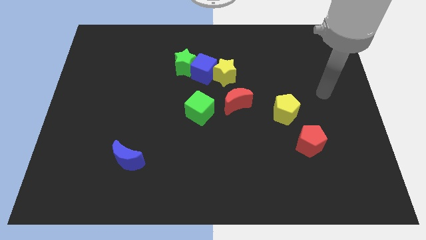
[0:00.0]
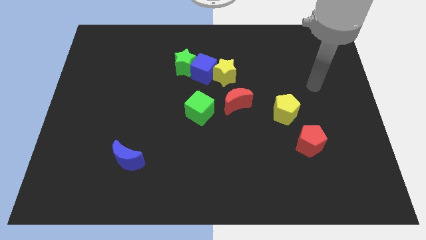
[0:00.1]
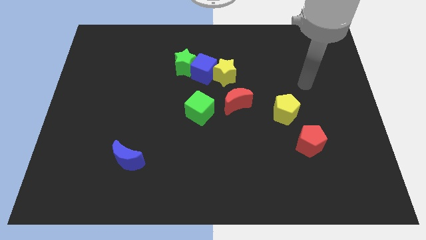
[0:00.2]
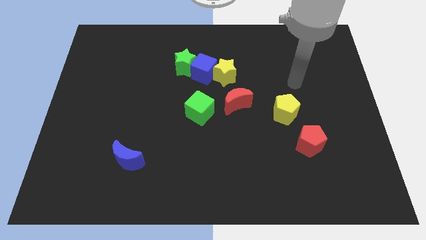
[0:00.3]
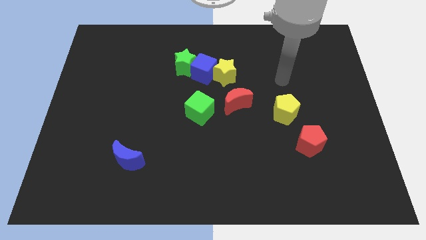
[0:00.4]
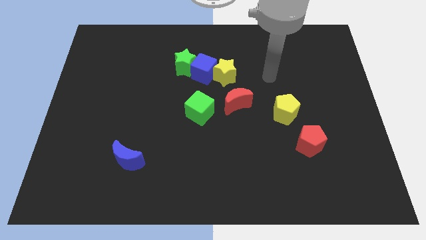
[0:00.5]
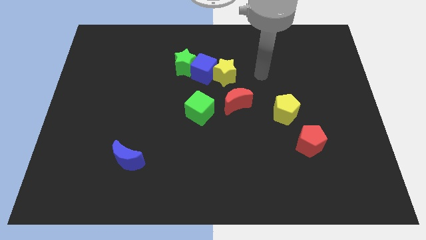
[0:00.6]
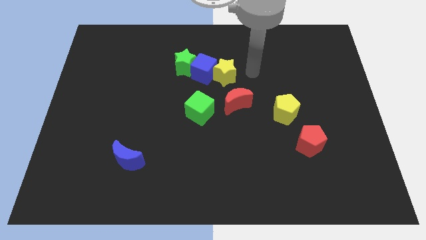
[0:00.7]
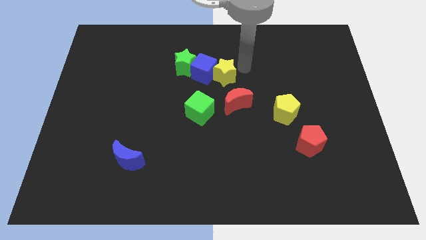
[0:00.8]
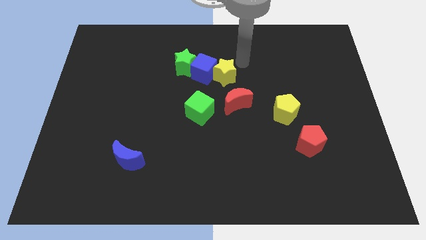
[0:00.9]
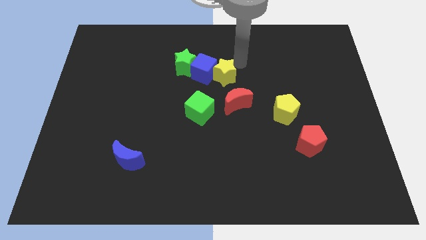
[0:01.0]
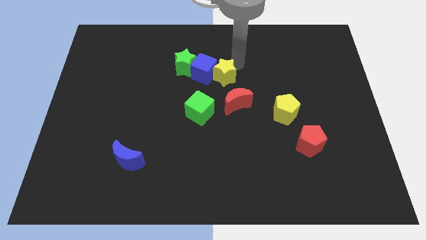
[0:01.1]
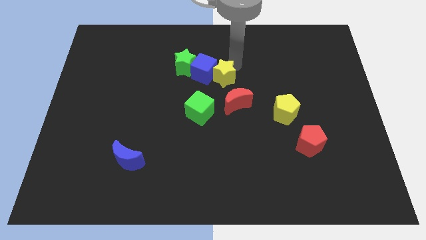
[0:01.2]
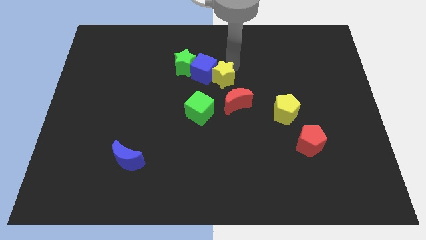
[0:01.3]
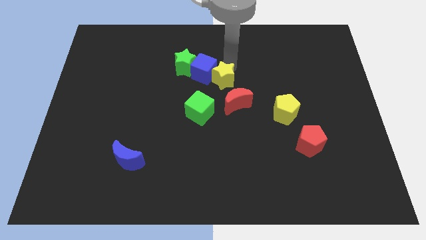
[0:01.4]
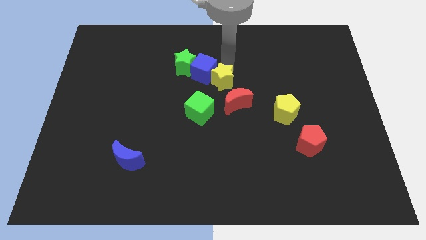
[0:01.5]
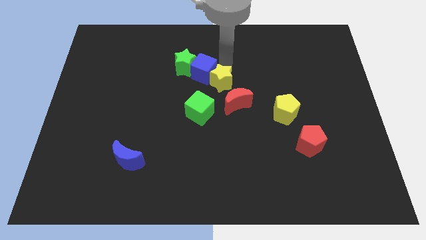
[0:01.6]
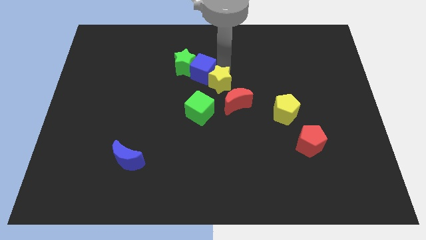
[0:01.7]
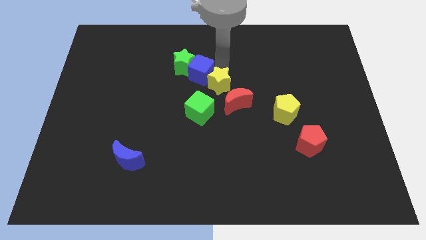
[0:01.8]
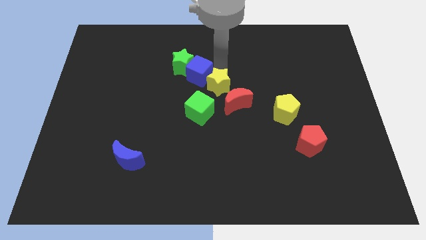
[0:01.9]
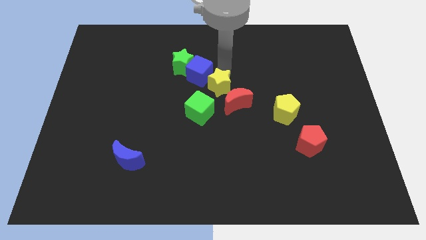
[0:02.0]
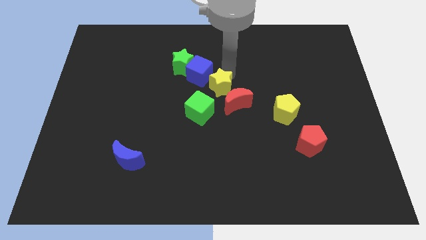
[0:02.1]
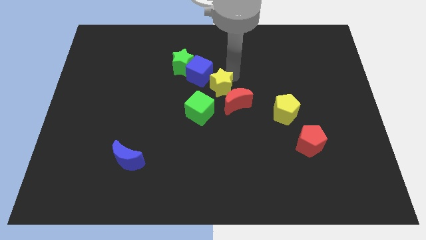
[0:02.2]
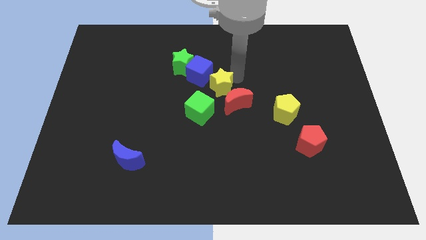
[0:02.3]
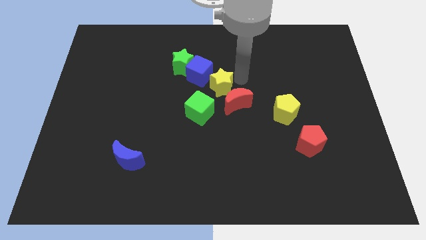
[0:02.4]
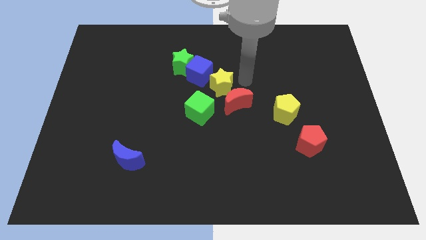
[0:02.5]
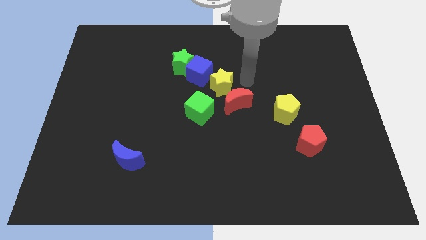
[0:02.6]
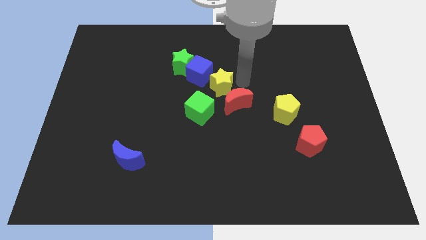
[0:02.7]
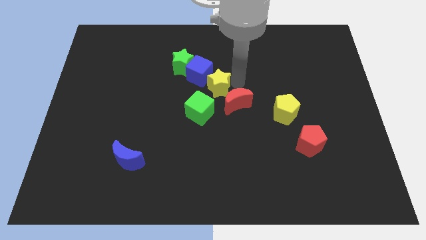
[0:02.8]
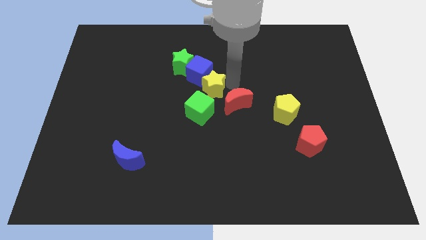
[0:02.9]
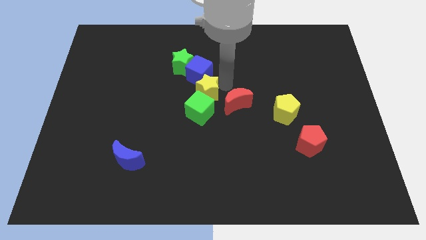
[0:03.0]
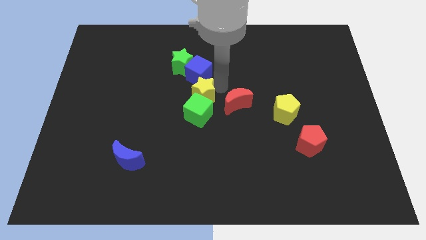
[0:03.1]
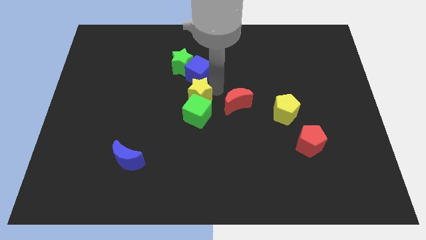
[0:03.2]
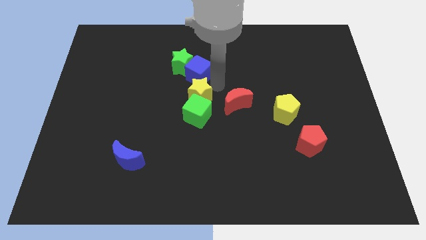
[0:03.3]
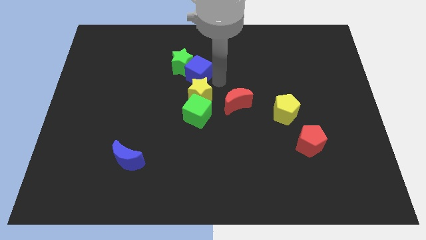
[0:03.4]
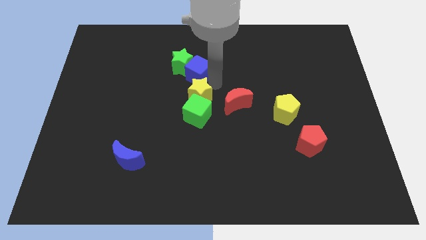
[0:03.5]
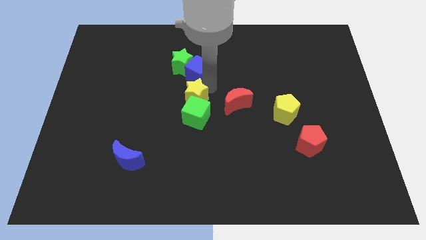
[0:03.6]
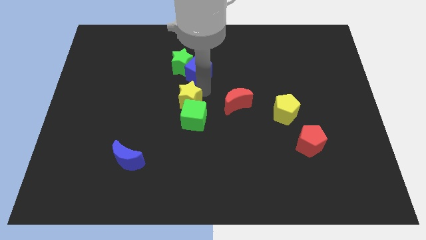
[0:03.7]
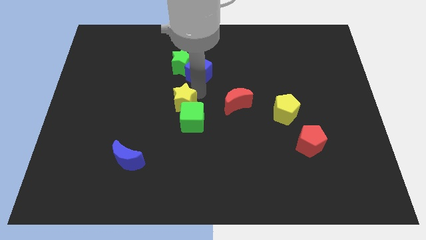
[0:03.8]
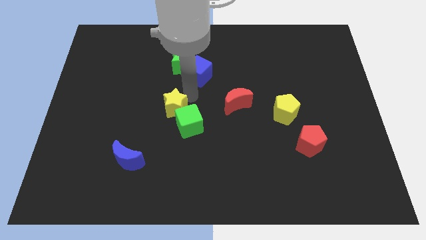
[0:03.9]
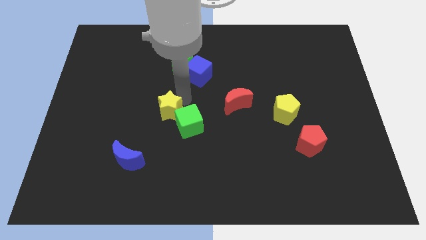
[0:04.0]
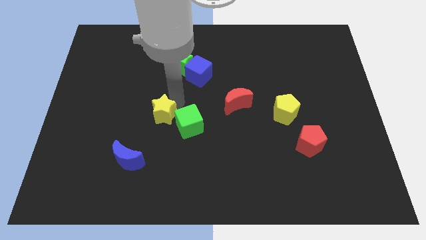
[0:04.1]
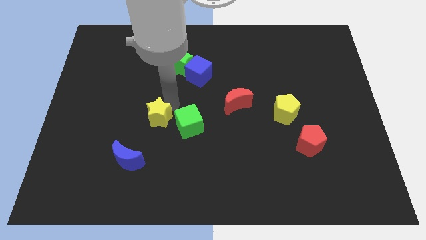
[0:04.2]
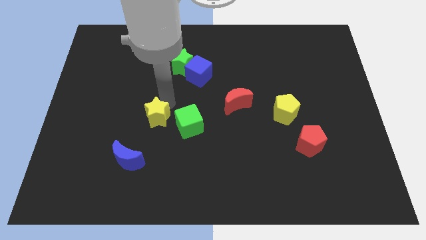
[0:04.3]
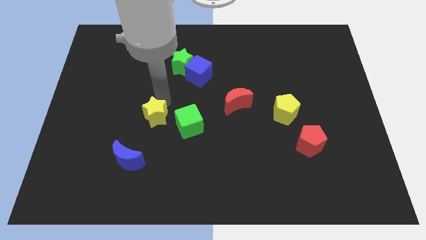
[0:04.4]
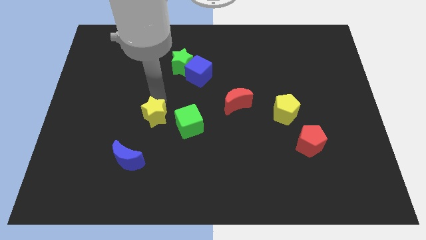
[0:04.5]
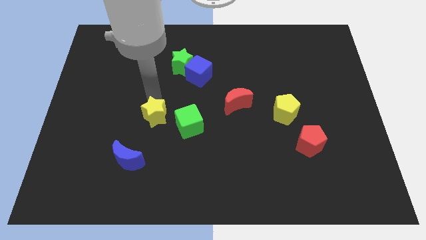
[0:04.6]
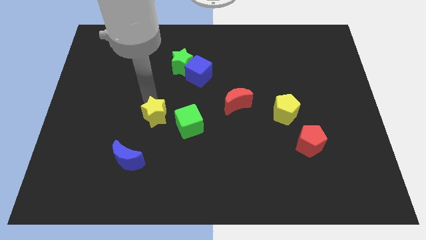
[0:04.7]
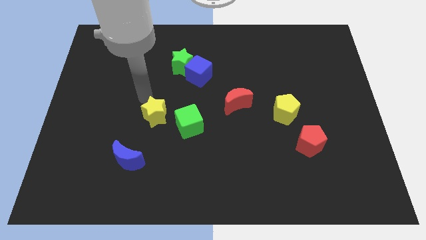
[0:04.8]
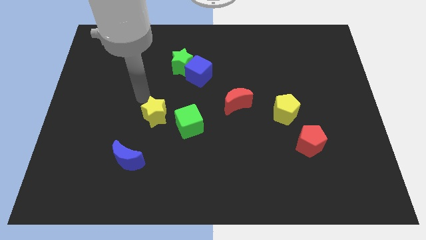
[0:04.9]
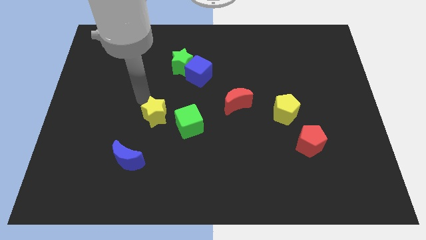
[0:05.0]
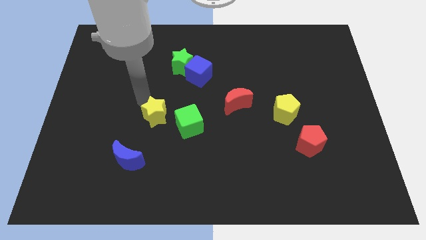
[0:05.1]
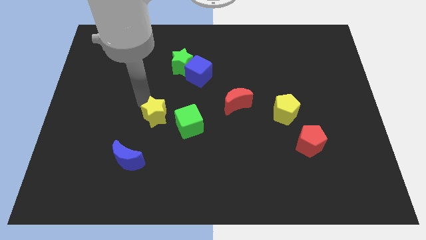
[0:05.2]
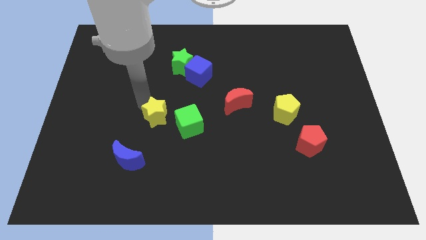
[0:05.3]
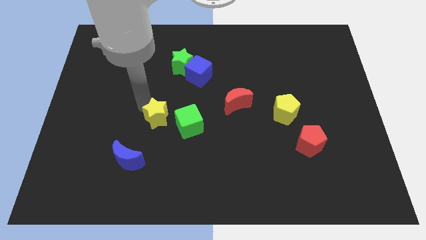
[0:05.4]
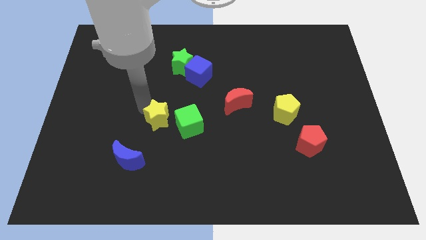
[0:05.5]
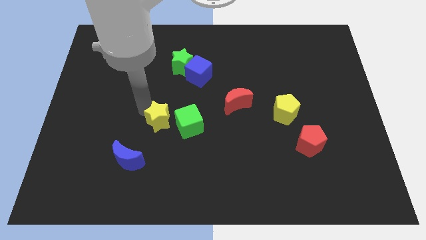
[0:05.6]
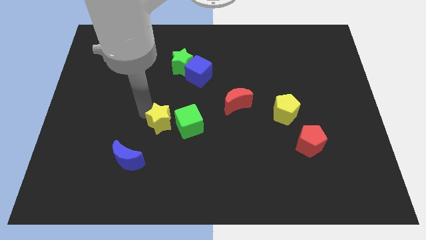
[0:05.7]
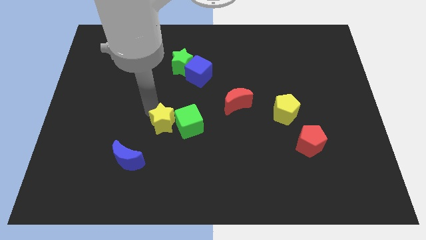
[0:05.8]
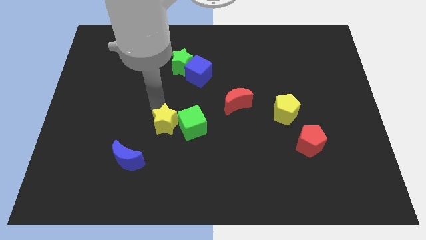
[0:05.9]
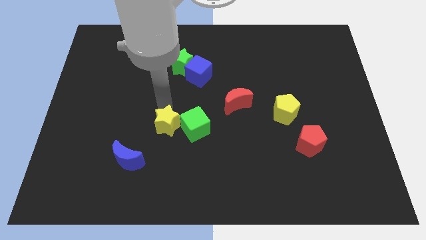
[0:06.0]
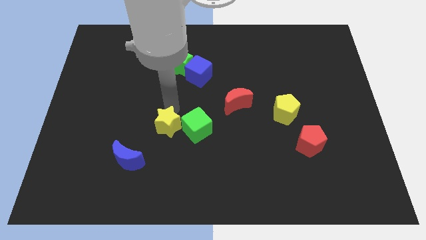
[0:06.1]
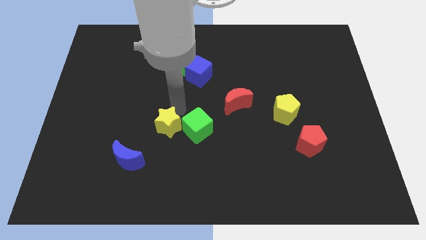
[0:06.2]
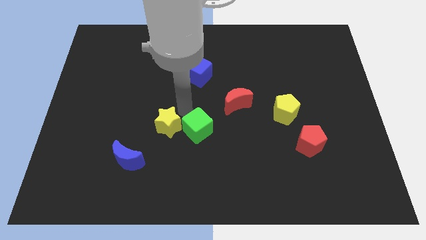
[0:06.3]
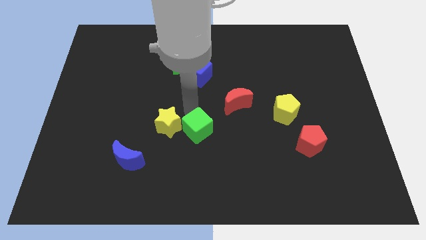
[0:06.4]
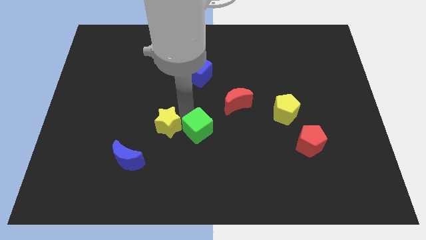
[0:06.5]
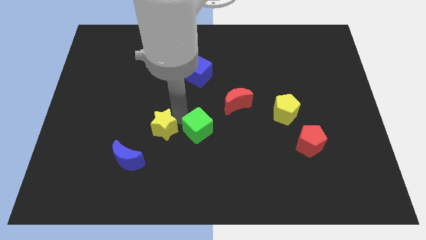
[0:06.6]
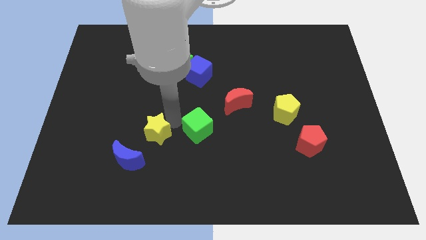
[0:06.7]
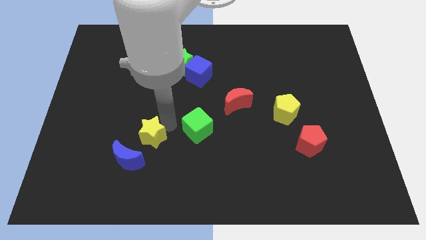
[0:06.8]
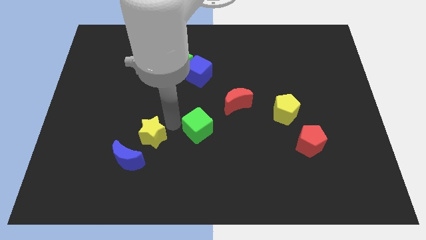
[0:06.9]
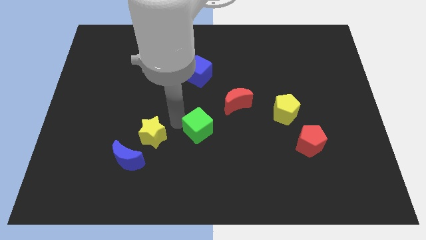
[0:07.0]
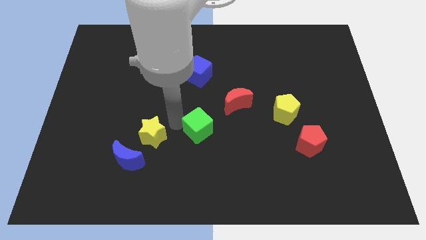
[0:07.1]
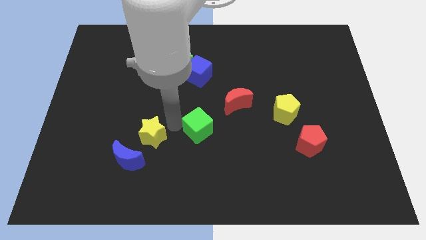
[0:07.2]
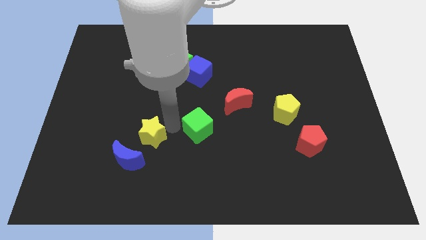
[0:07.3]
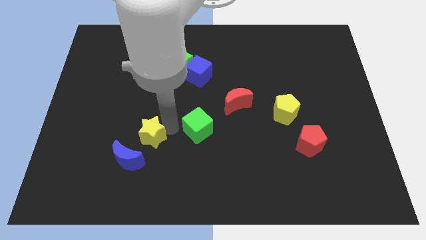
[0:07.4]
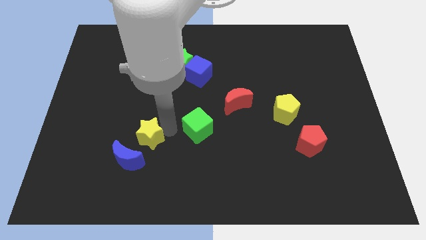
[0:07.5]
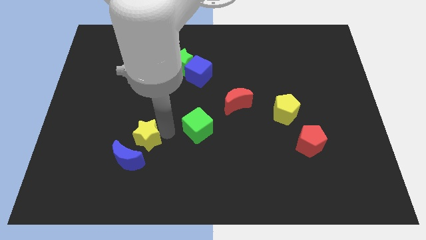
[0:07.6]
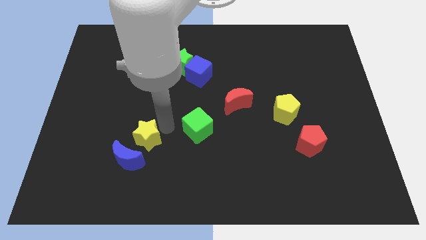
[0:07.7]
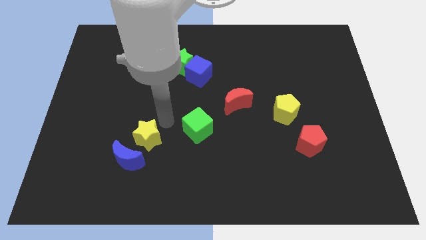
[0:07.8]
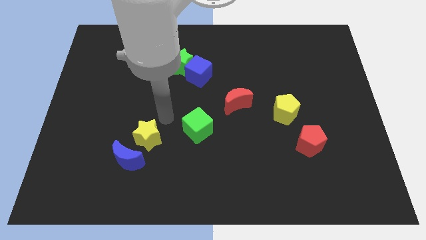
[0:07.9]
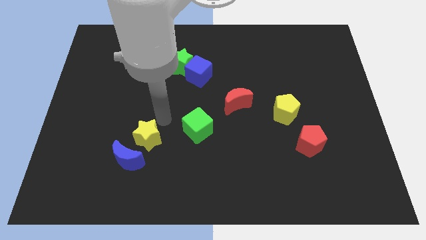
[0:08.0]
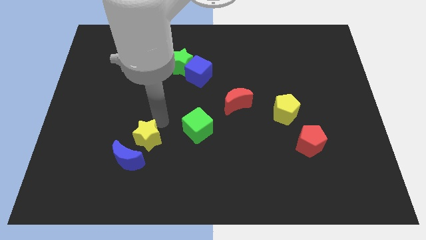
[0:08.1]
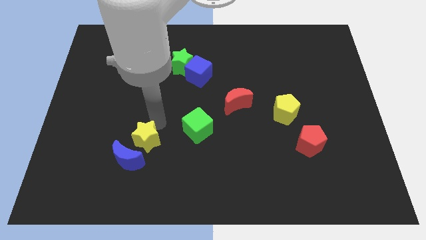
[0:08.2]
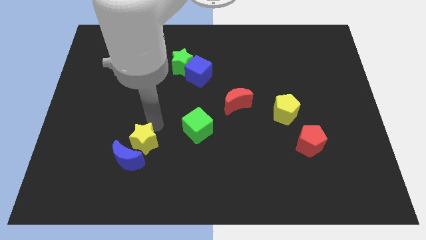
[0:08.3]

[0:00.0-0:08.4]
slide the yellow star next to the blue moon
